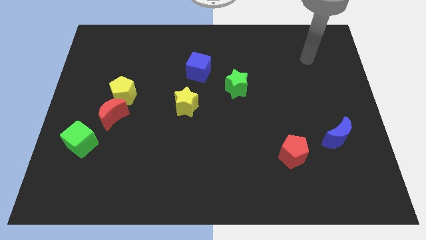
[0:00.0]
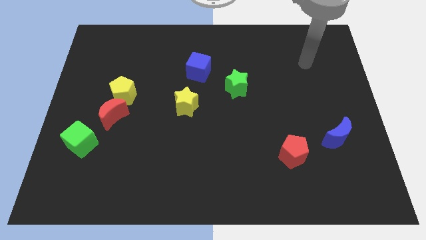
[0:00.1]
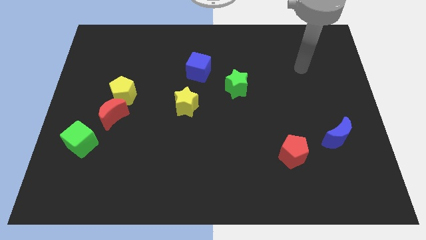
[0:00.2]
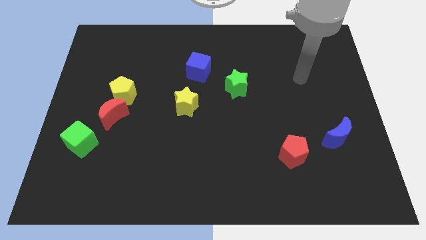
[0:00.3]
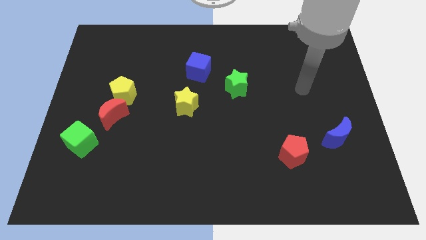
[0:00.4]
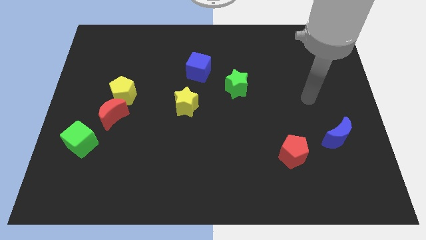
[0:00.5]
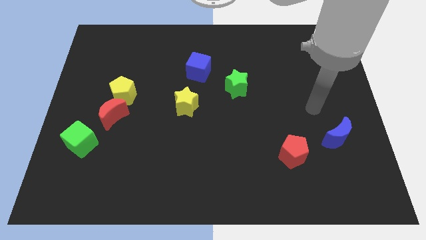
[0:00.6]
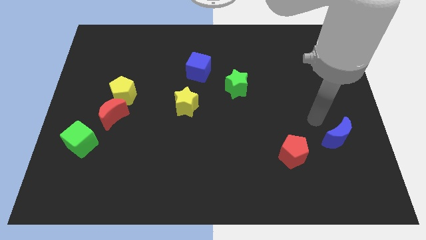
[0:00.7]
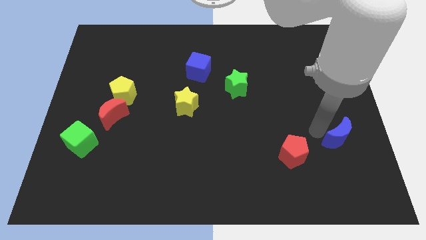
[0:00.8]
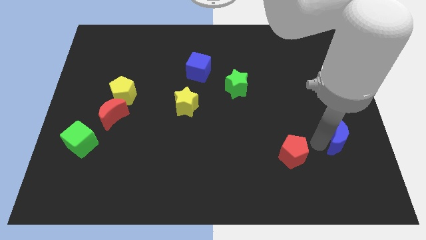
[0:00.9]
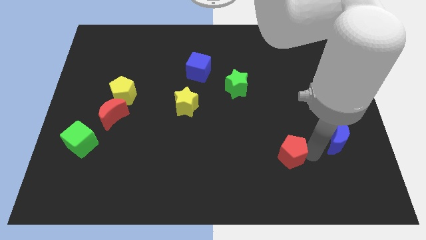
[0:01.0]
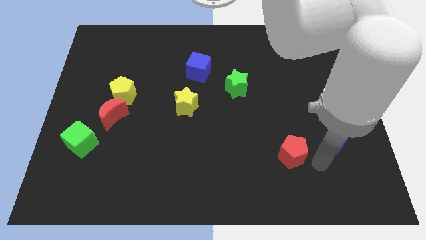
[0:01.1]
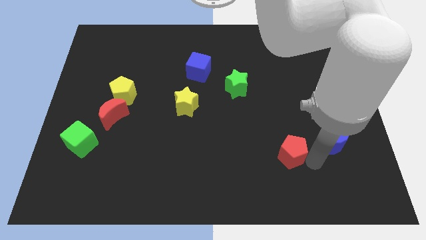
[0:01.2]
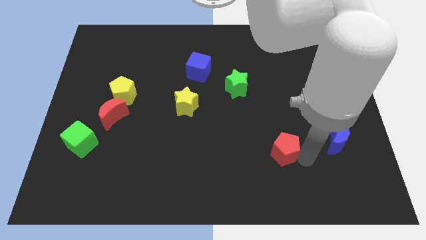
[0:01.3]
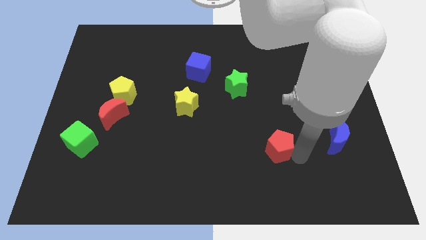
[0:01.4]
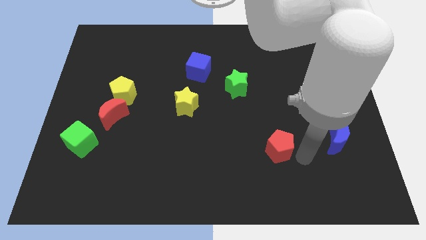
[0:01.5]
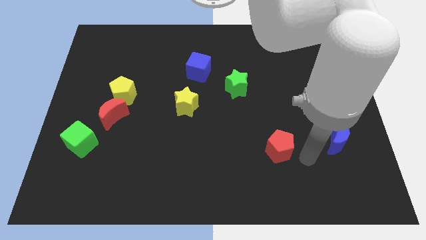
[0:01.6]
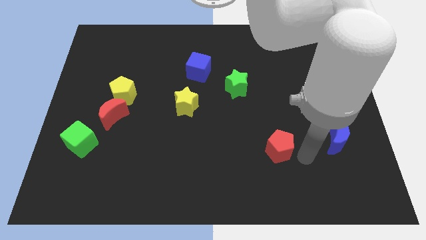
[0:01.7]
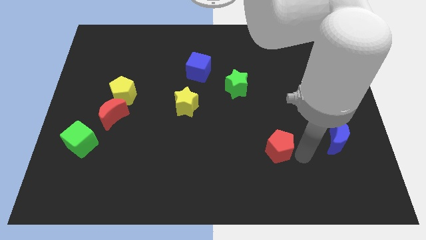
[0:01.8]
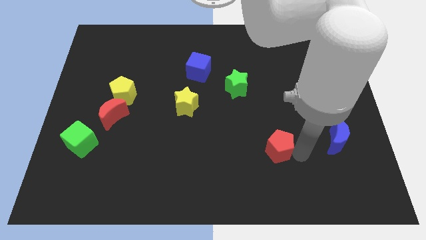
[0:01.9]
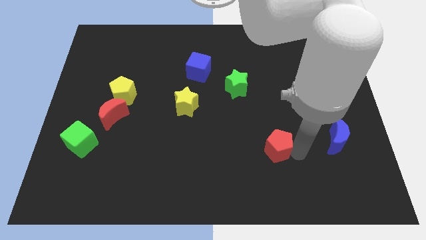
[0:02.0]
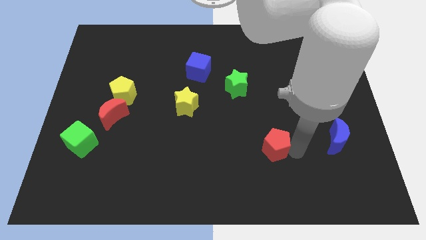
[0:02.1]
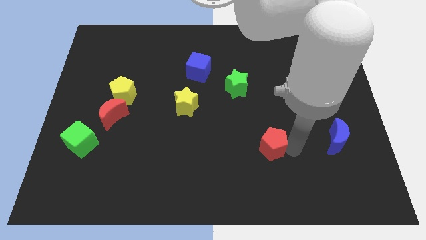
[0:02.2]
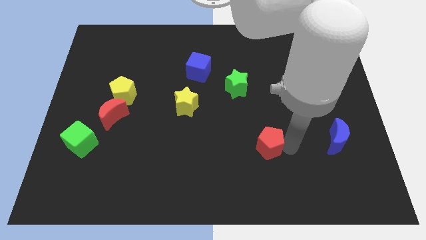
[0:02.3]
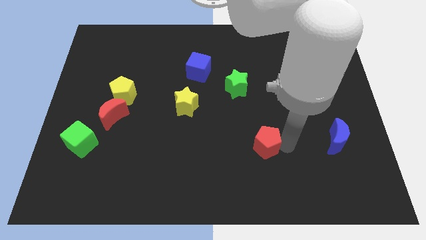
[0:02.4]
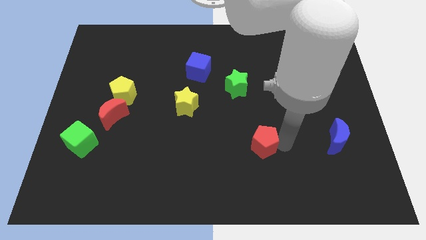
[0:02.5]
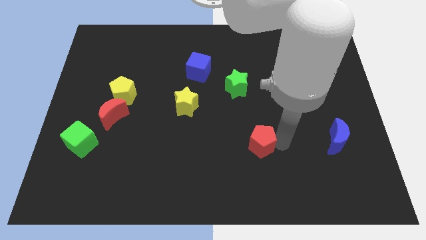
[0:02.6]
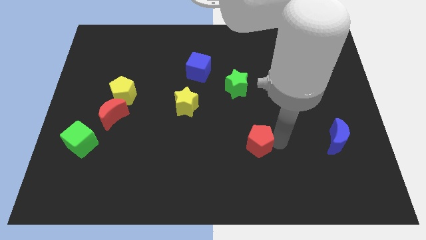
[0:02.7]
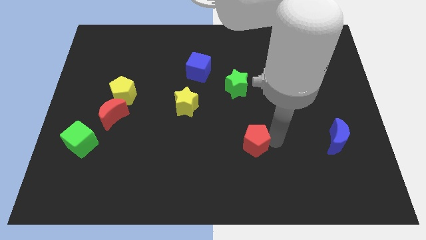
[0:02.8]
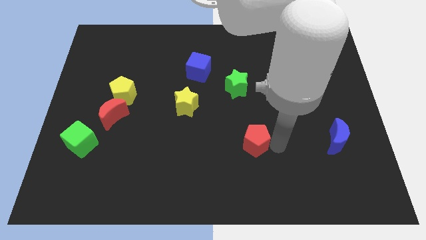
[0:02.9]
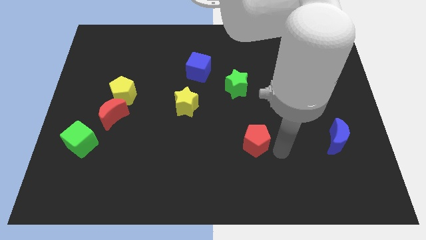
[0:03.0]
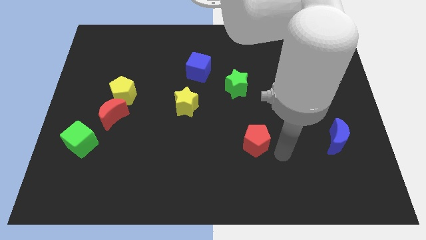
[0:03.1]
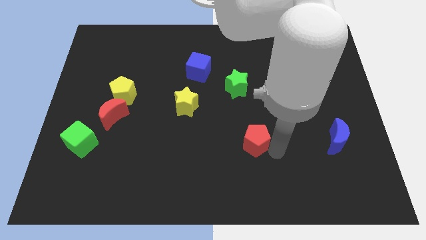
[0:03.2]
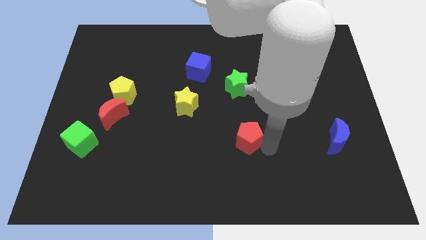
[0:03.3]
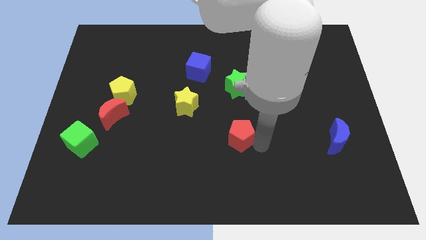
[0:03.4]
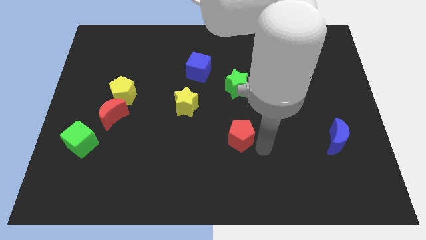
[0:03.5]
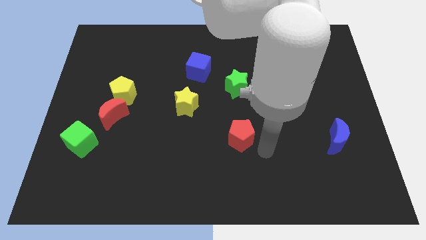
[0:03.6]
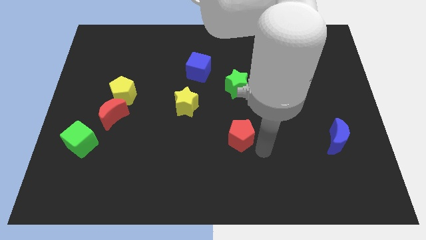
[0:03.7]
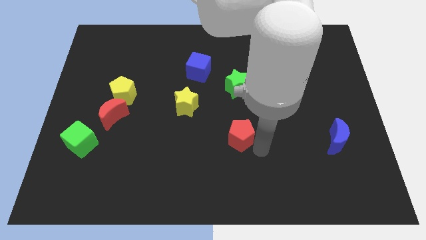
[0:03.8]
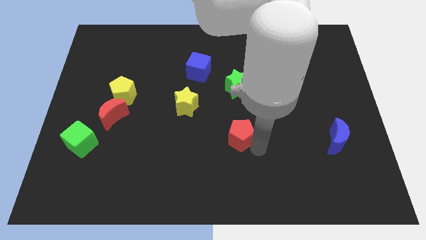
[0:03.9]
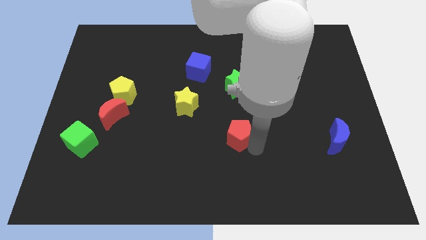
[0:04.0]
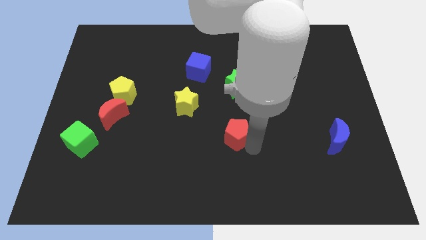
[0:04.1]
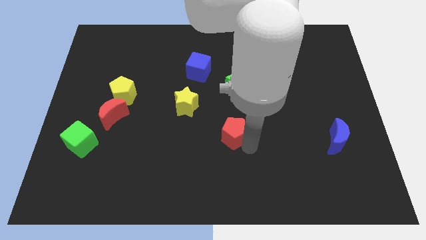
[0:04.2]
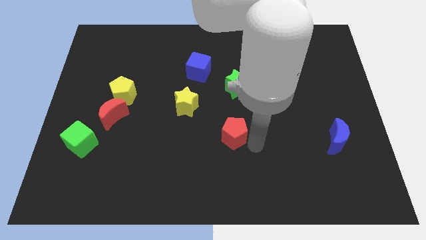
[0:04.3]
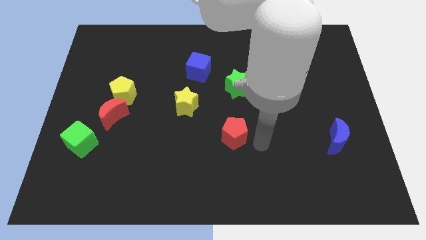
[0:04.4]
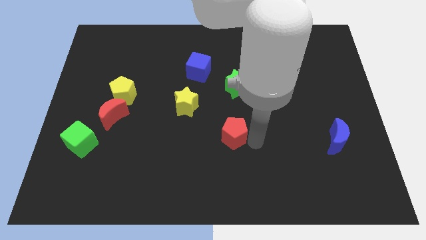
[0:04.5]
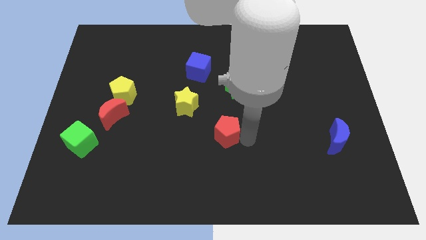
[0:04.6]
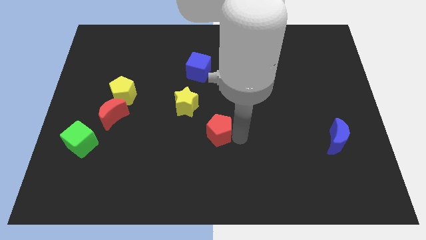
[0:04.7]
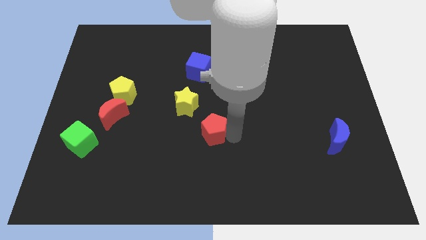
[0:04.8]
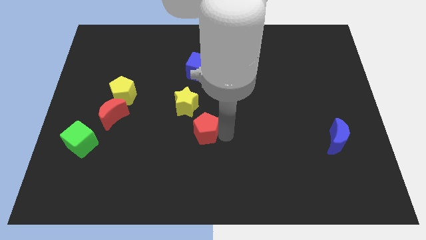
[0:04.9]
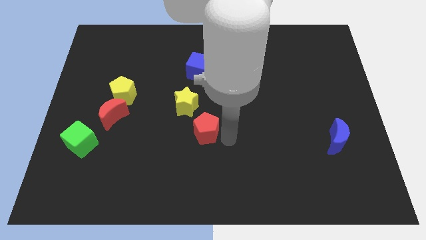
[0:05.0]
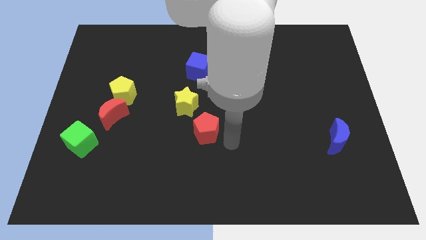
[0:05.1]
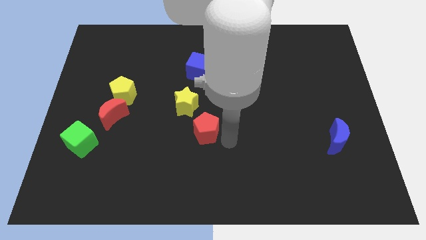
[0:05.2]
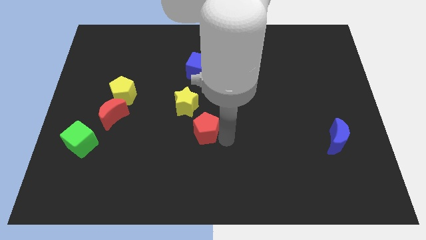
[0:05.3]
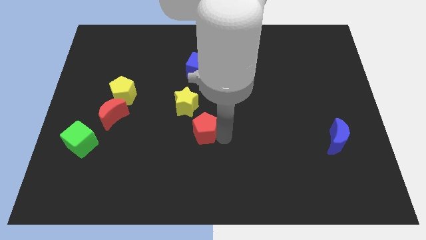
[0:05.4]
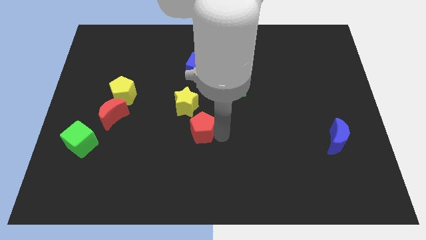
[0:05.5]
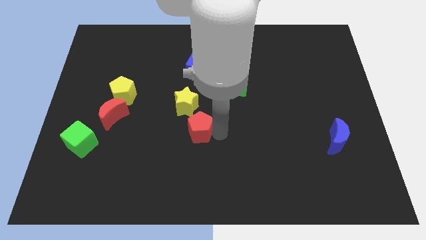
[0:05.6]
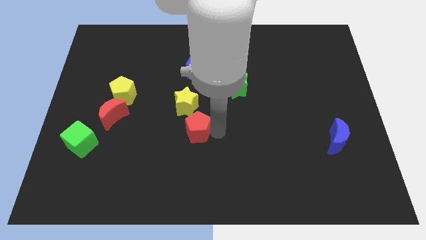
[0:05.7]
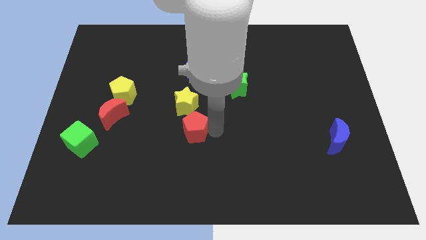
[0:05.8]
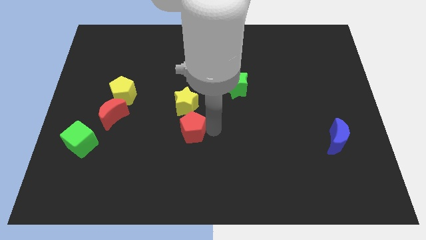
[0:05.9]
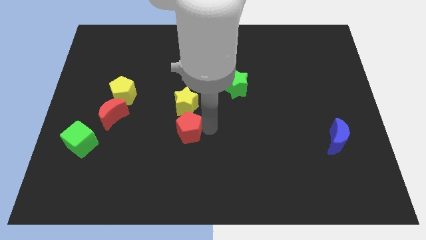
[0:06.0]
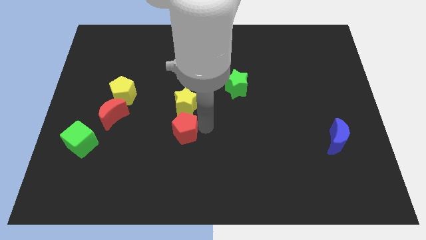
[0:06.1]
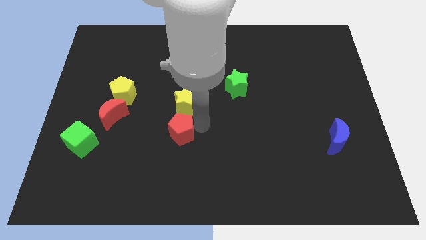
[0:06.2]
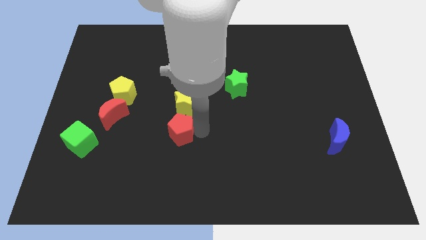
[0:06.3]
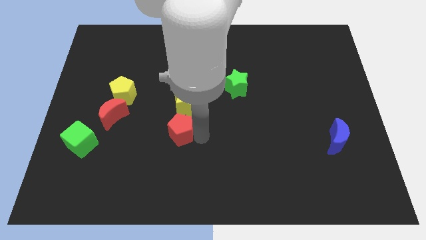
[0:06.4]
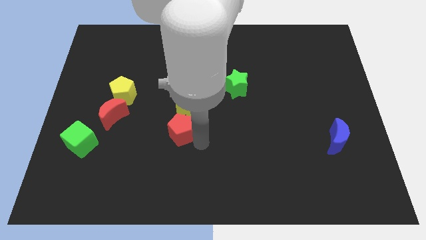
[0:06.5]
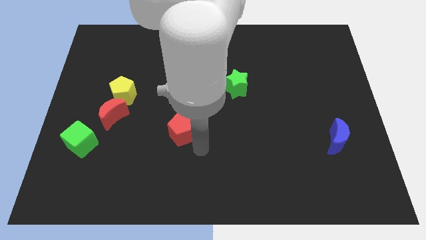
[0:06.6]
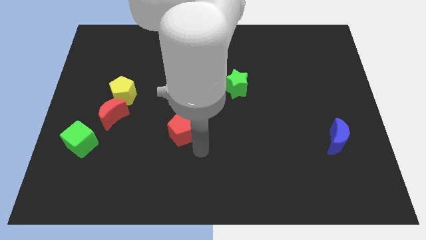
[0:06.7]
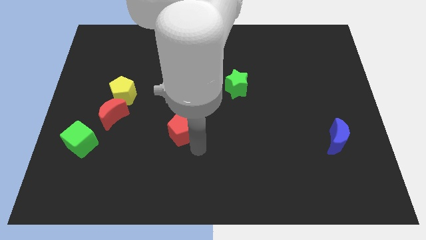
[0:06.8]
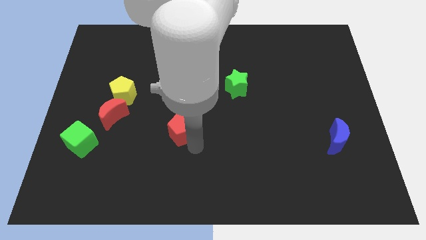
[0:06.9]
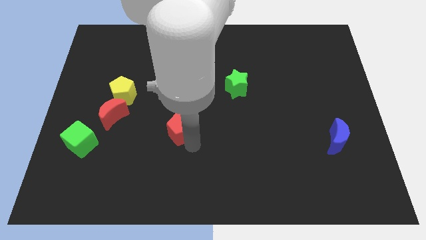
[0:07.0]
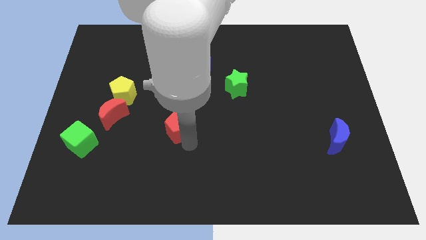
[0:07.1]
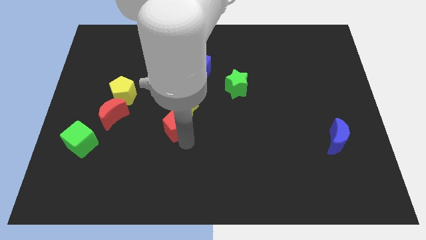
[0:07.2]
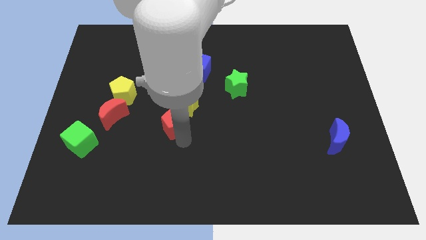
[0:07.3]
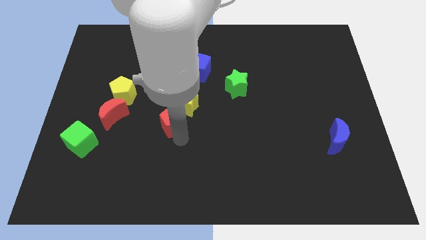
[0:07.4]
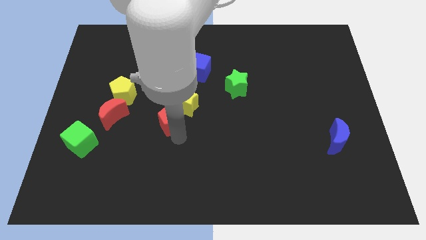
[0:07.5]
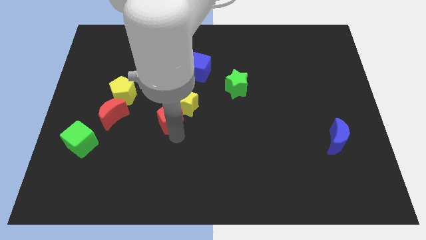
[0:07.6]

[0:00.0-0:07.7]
move the red pentagon left of the yellow star

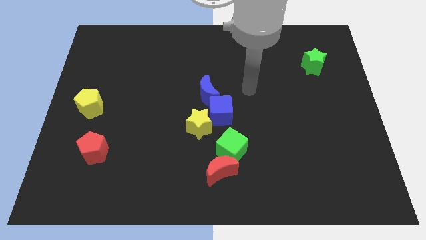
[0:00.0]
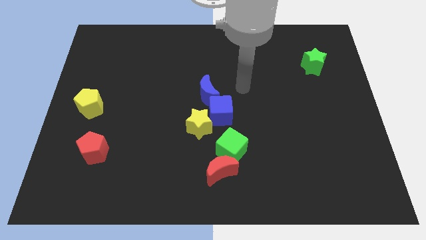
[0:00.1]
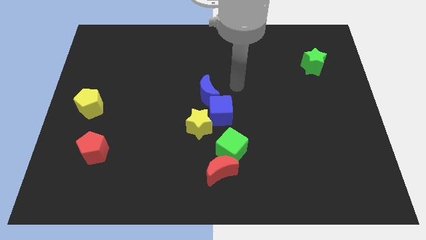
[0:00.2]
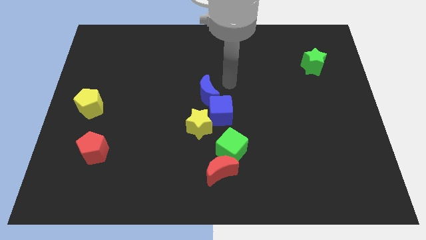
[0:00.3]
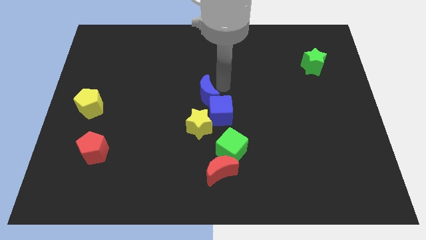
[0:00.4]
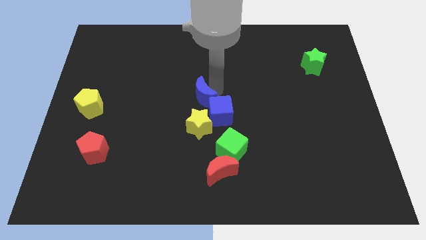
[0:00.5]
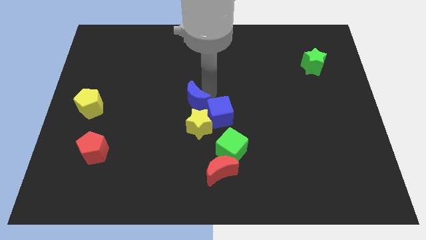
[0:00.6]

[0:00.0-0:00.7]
slide the blue moon to the left of the blue cube
